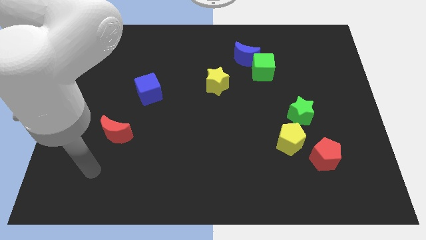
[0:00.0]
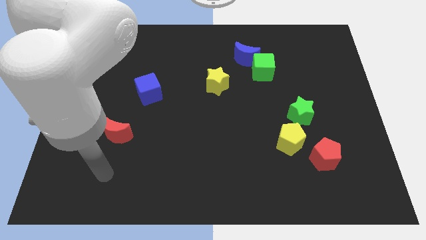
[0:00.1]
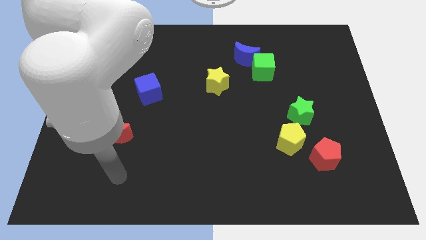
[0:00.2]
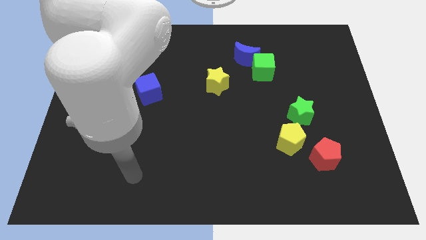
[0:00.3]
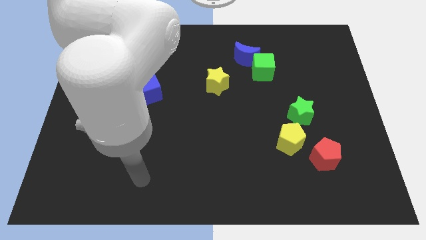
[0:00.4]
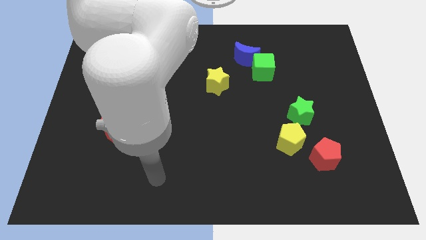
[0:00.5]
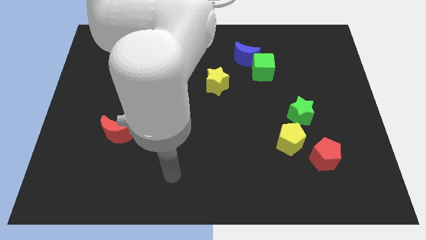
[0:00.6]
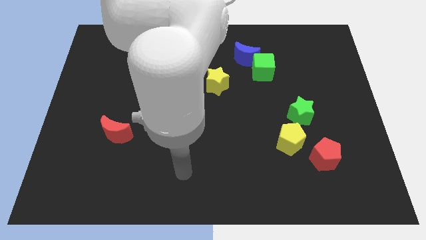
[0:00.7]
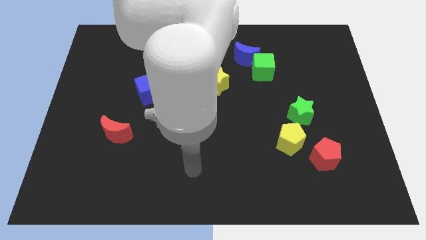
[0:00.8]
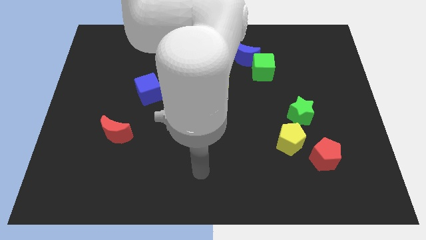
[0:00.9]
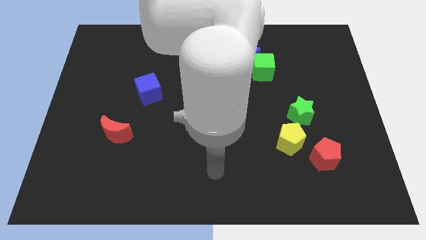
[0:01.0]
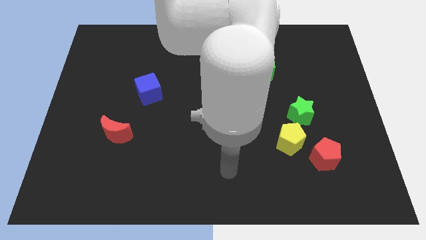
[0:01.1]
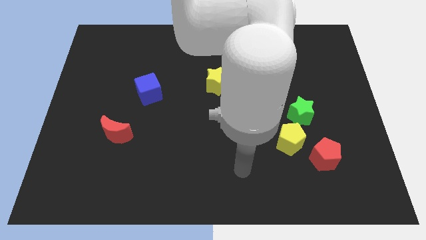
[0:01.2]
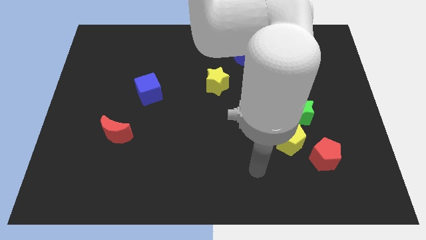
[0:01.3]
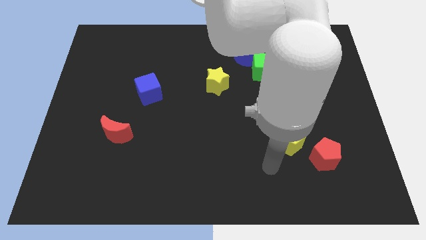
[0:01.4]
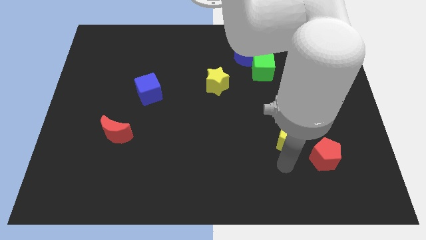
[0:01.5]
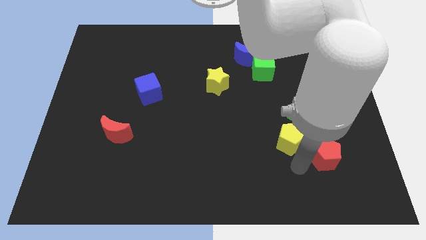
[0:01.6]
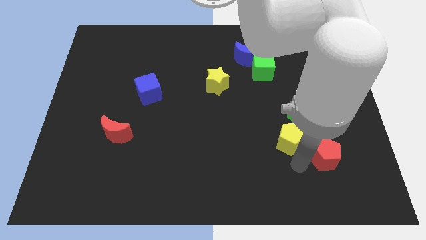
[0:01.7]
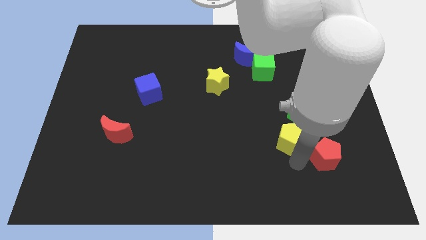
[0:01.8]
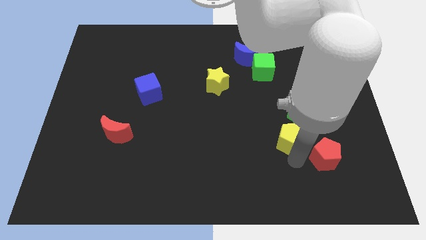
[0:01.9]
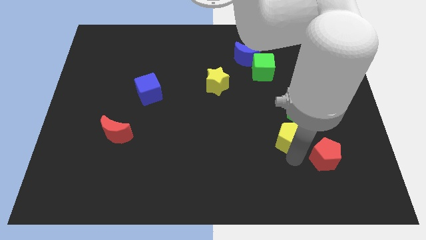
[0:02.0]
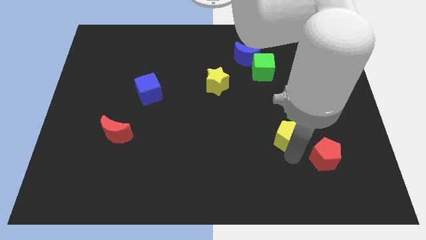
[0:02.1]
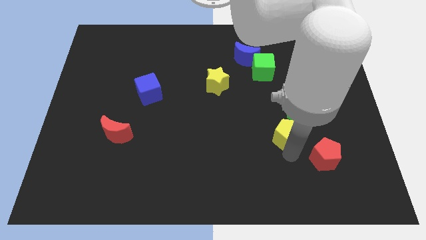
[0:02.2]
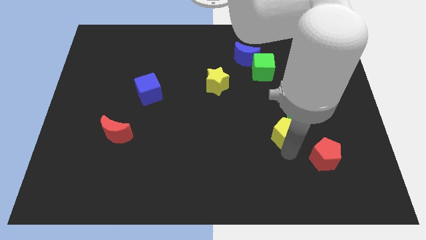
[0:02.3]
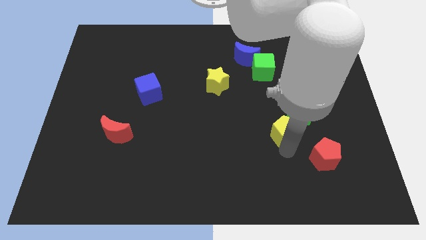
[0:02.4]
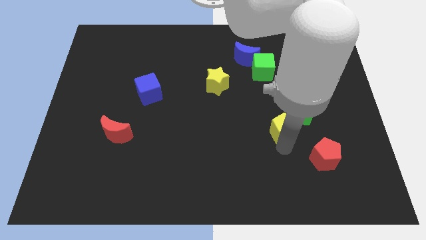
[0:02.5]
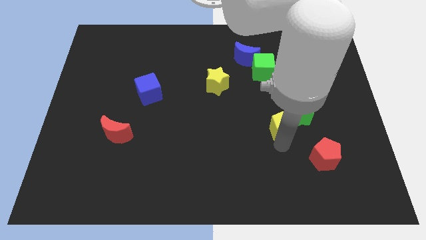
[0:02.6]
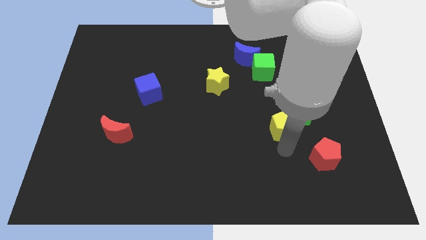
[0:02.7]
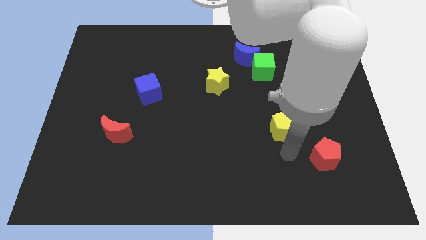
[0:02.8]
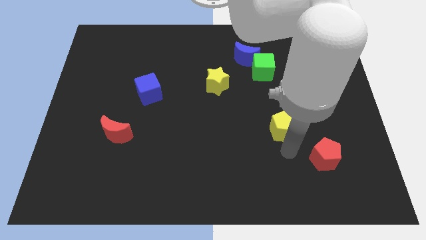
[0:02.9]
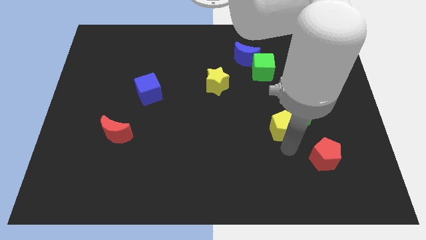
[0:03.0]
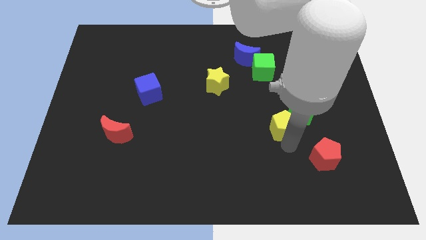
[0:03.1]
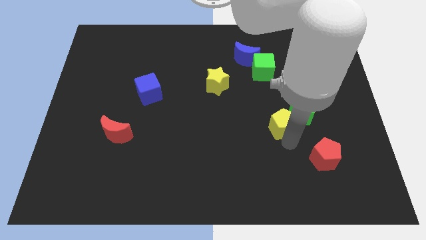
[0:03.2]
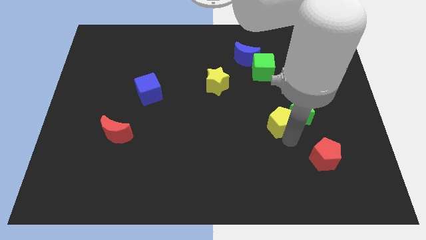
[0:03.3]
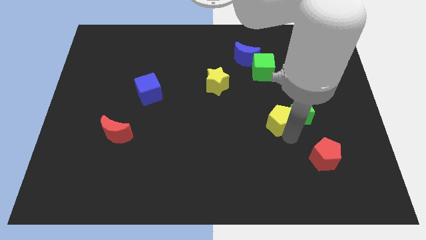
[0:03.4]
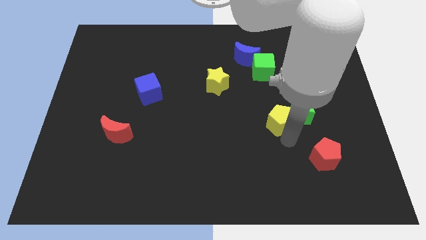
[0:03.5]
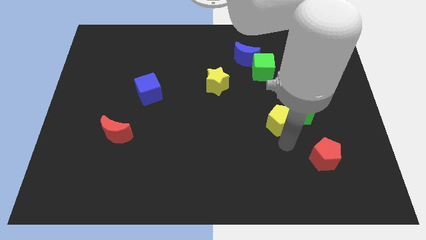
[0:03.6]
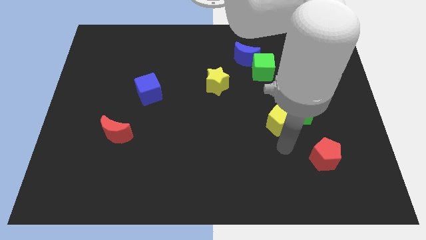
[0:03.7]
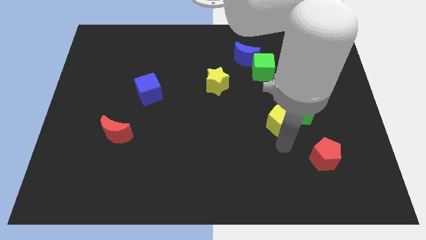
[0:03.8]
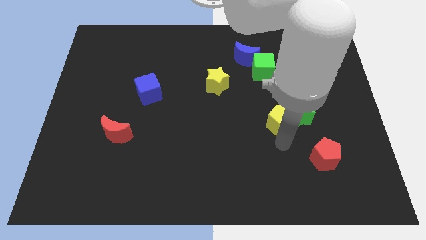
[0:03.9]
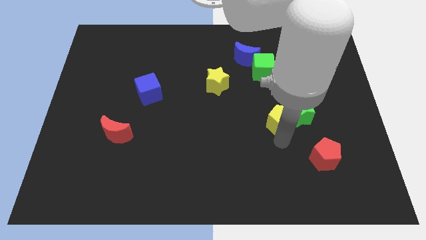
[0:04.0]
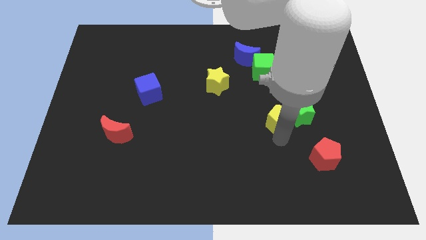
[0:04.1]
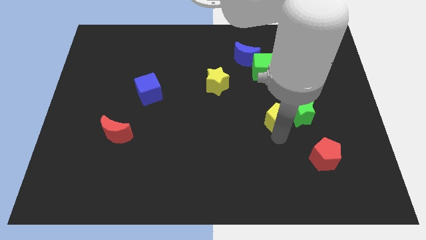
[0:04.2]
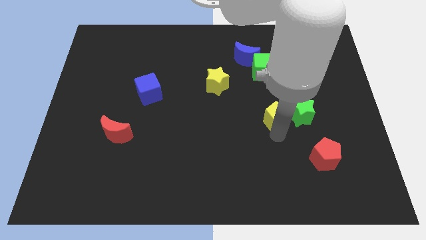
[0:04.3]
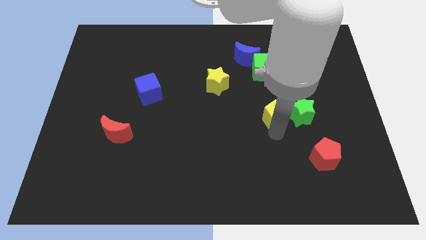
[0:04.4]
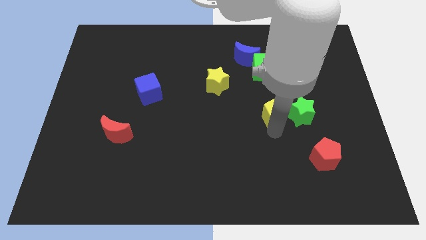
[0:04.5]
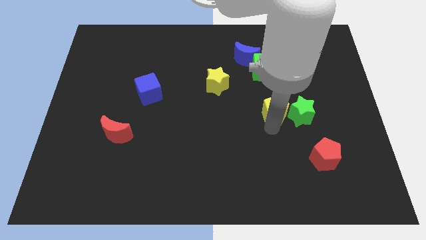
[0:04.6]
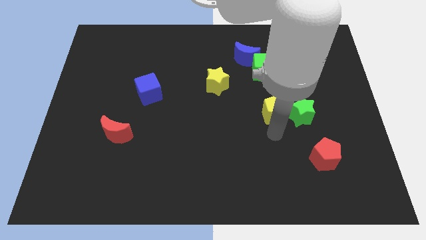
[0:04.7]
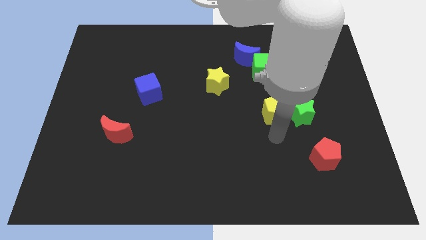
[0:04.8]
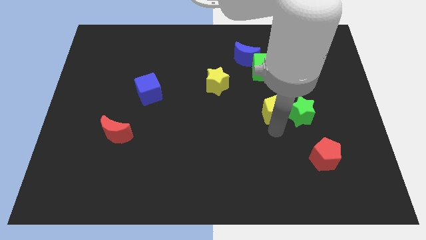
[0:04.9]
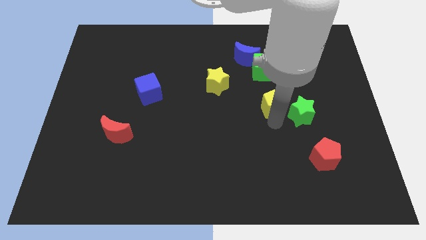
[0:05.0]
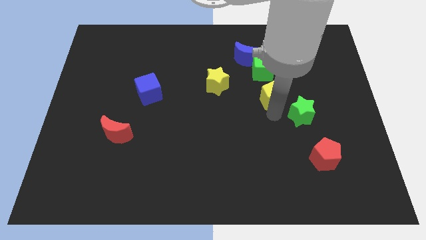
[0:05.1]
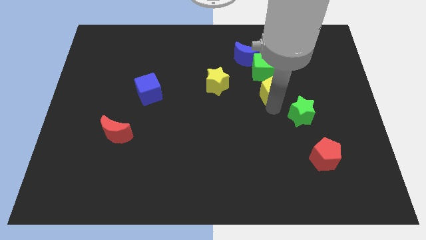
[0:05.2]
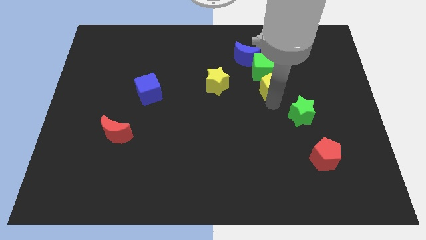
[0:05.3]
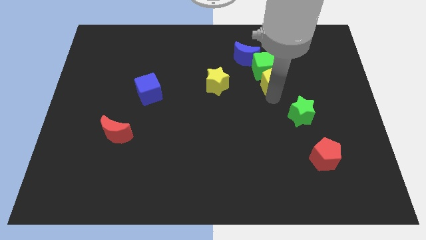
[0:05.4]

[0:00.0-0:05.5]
push the yellow pentagon to the green cube

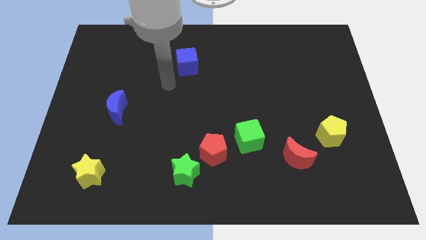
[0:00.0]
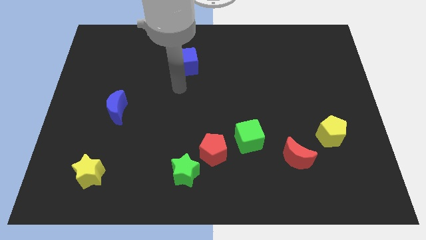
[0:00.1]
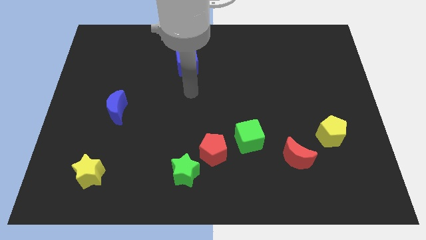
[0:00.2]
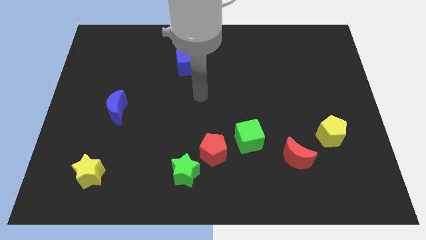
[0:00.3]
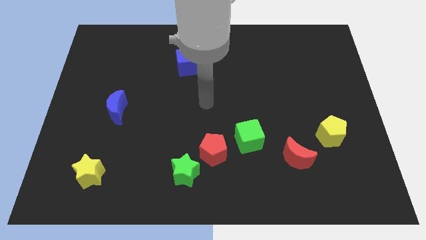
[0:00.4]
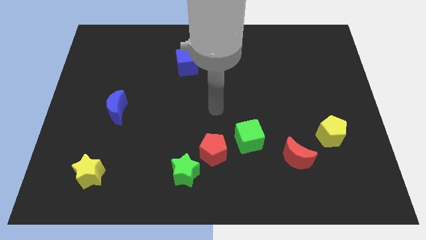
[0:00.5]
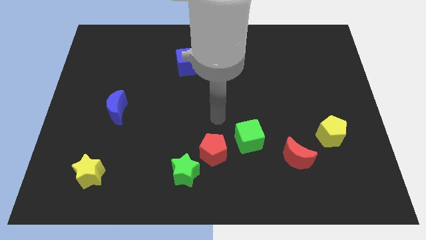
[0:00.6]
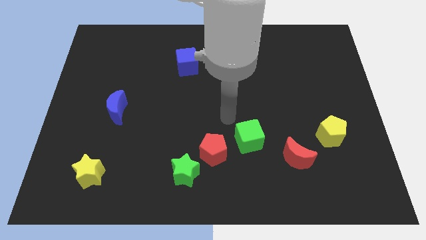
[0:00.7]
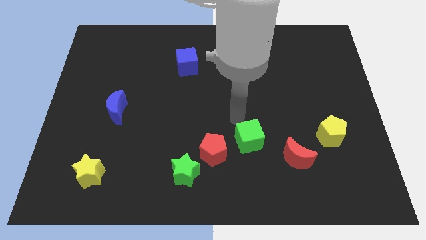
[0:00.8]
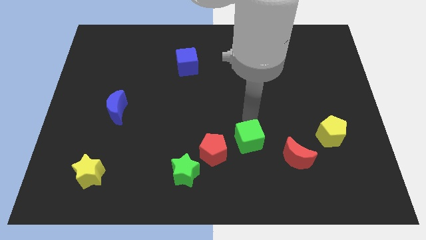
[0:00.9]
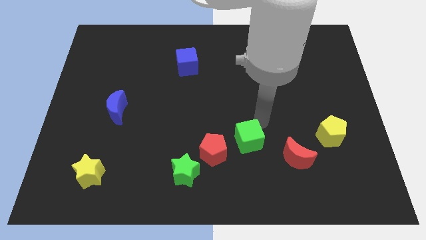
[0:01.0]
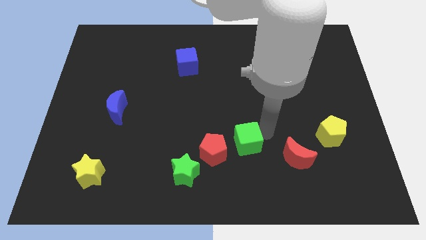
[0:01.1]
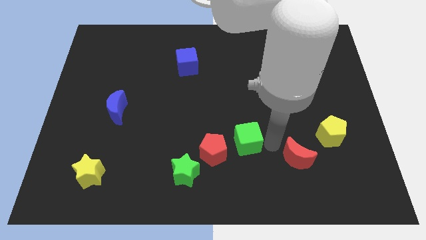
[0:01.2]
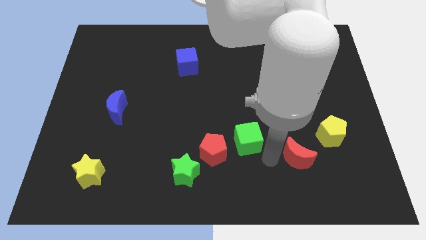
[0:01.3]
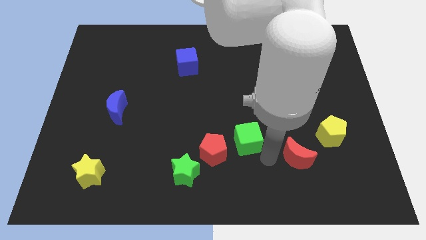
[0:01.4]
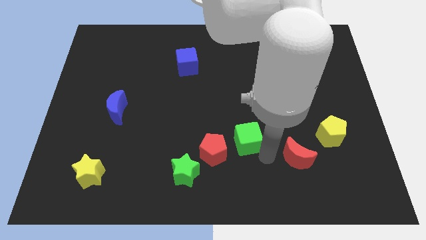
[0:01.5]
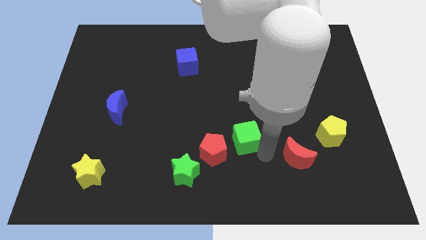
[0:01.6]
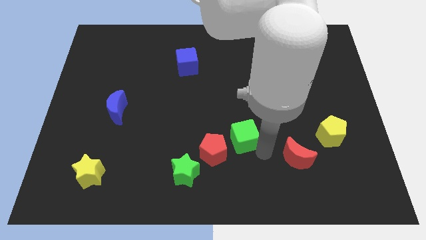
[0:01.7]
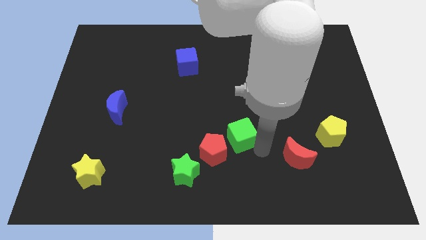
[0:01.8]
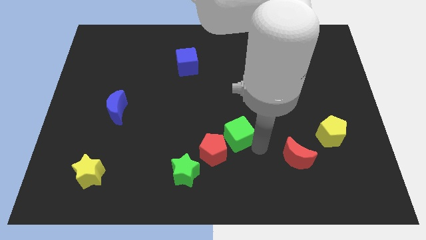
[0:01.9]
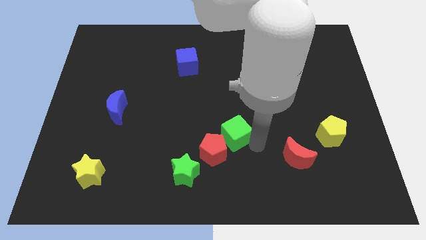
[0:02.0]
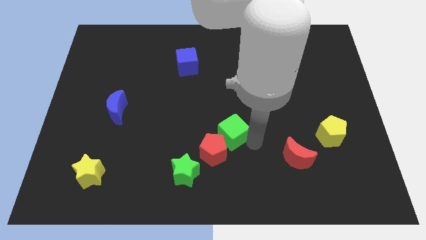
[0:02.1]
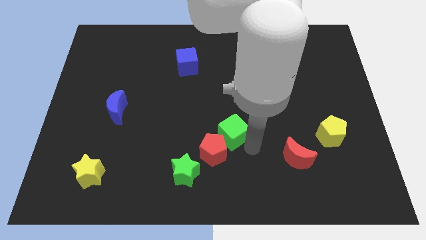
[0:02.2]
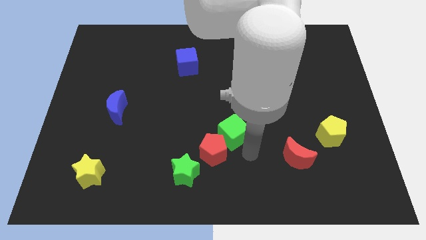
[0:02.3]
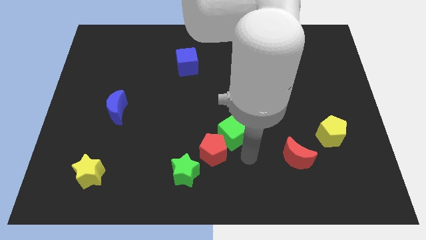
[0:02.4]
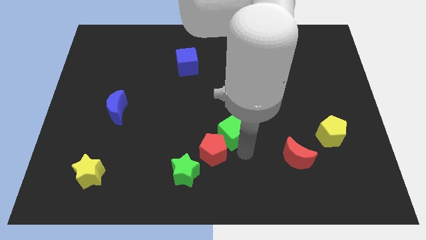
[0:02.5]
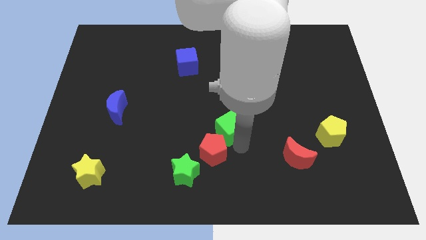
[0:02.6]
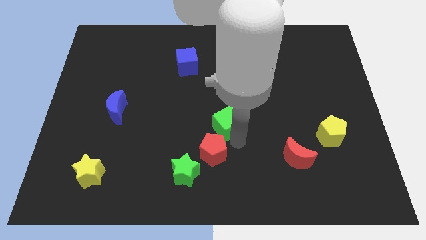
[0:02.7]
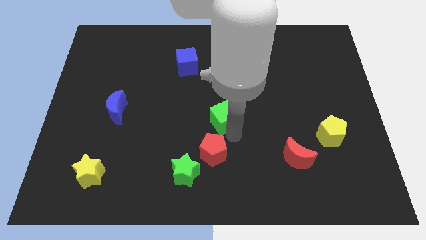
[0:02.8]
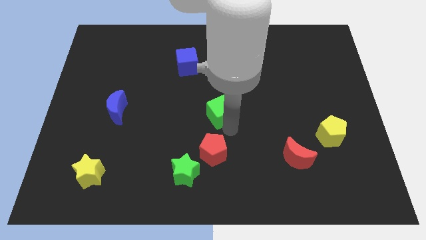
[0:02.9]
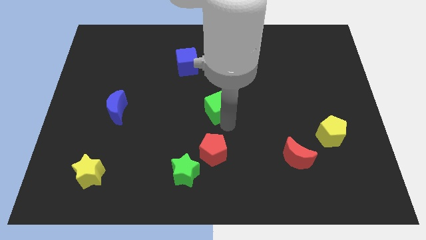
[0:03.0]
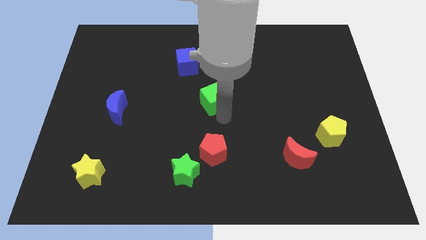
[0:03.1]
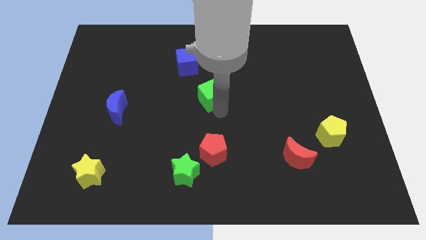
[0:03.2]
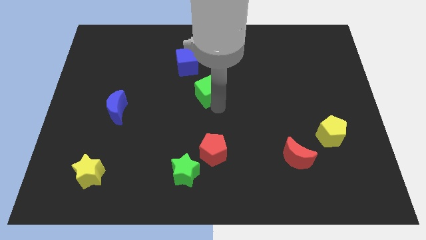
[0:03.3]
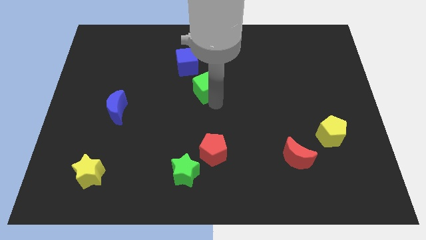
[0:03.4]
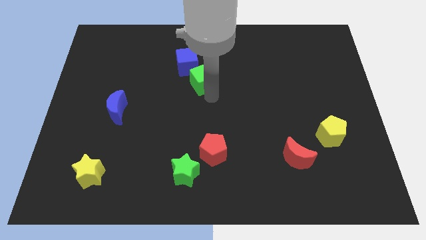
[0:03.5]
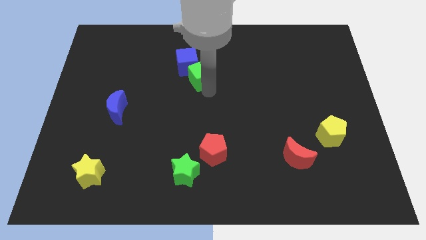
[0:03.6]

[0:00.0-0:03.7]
put the green cube to the blue cube
